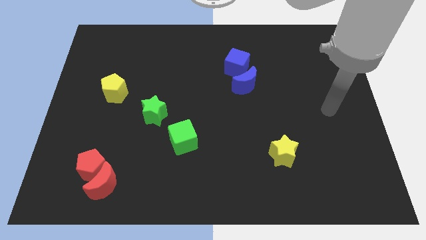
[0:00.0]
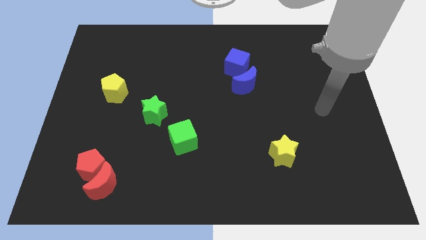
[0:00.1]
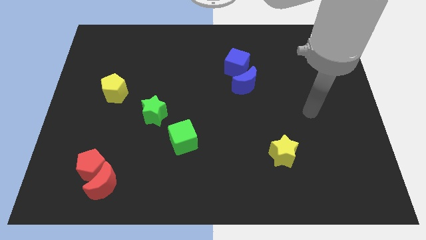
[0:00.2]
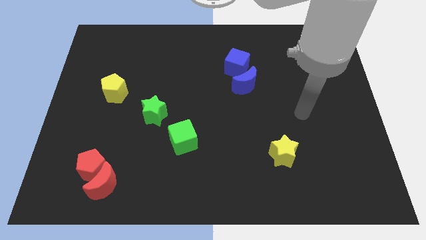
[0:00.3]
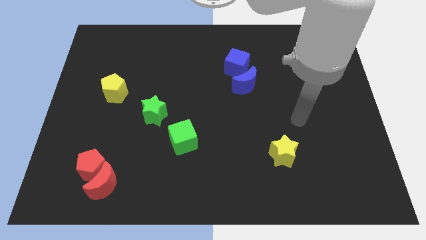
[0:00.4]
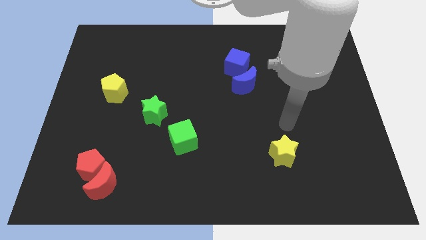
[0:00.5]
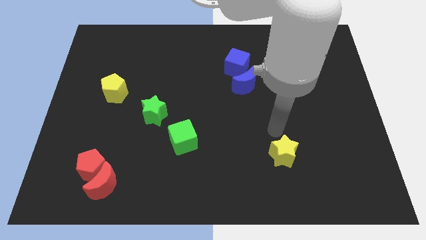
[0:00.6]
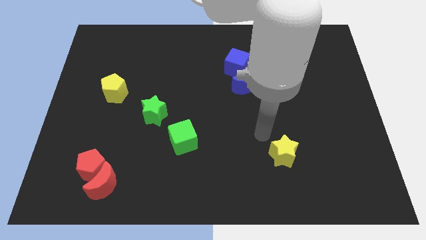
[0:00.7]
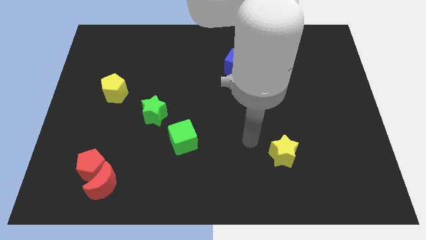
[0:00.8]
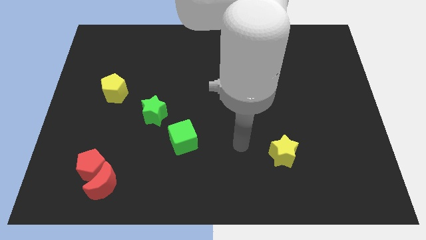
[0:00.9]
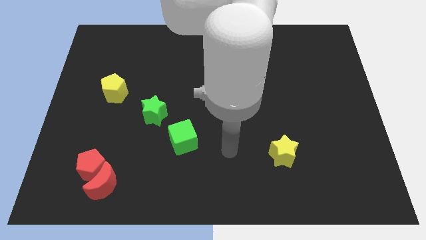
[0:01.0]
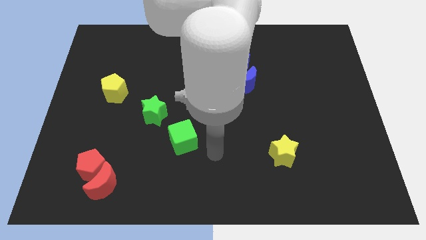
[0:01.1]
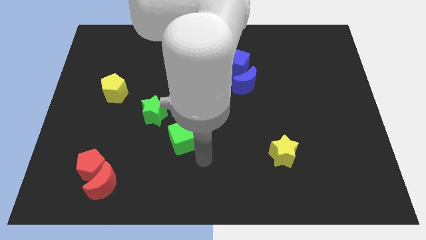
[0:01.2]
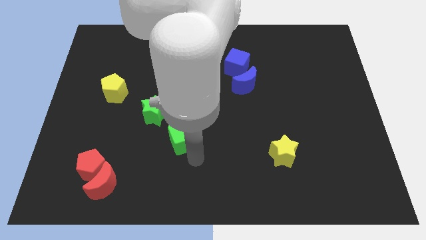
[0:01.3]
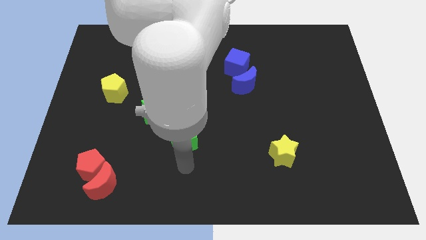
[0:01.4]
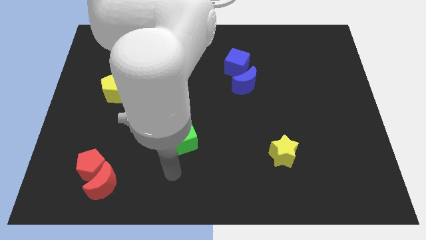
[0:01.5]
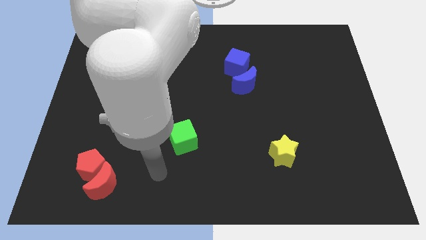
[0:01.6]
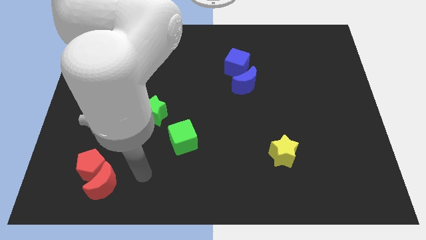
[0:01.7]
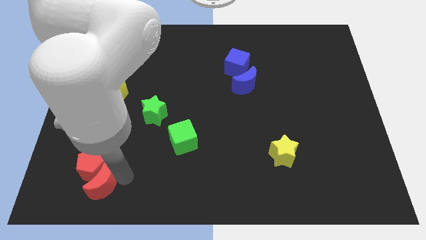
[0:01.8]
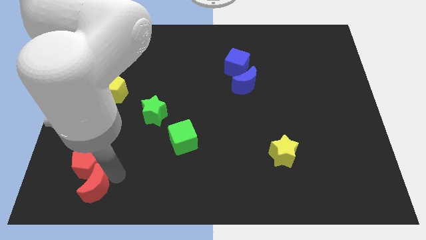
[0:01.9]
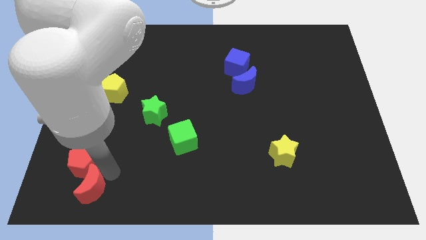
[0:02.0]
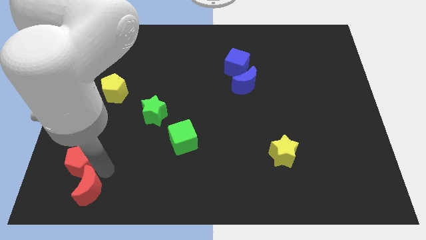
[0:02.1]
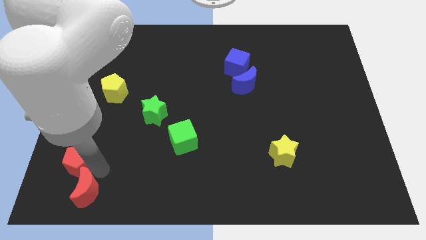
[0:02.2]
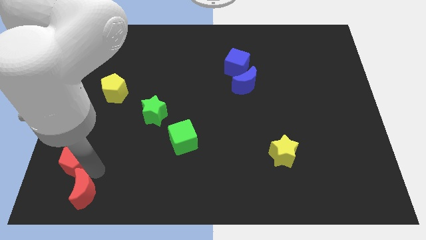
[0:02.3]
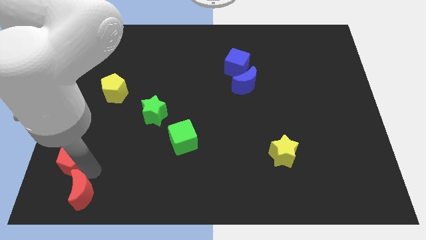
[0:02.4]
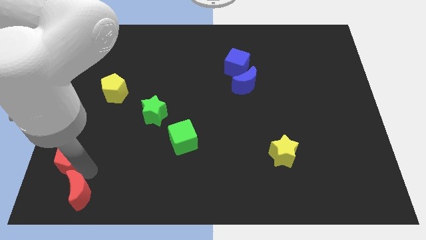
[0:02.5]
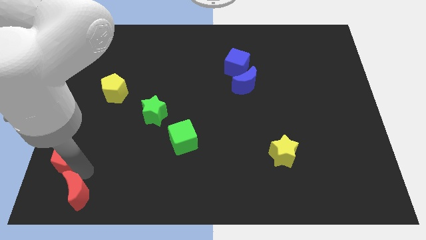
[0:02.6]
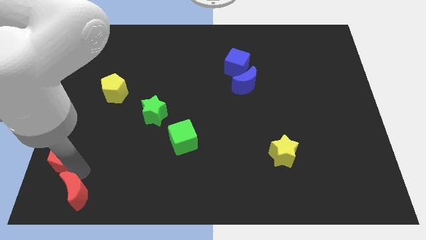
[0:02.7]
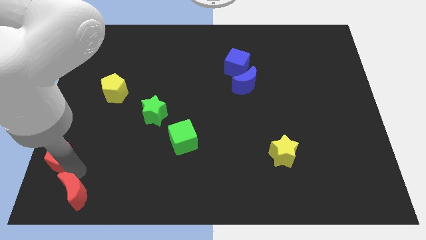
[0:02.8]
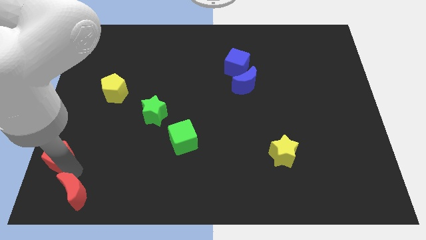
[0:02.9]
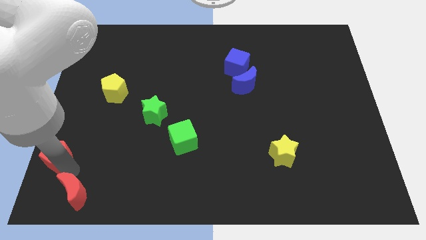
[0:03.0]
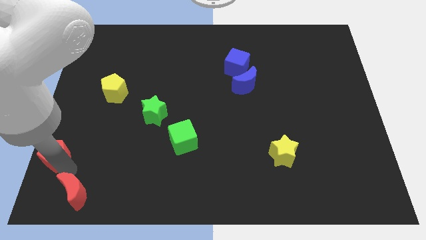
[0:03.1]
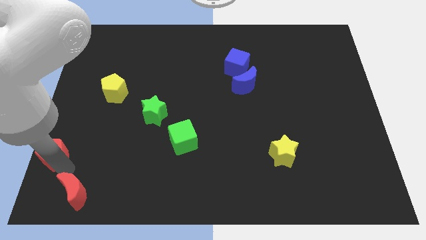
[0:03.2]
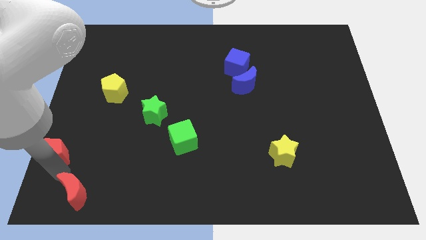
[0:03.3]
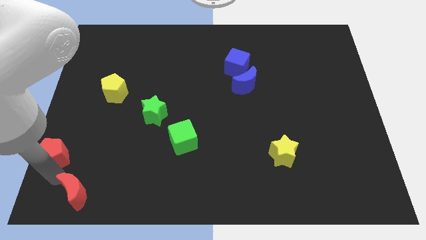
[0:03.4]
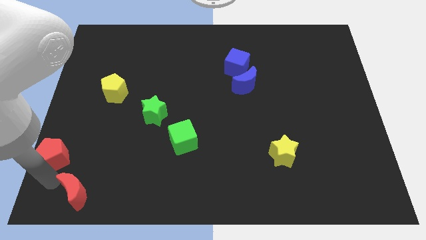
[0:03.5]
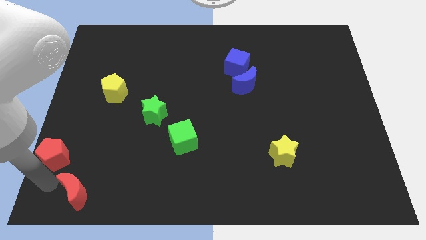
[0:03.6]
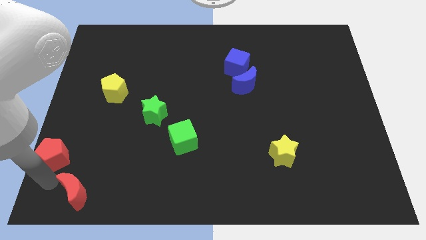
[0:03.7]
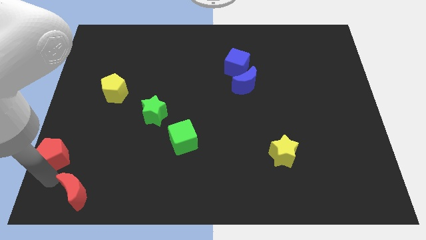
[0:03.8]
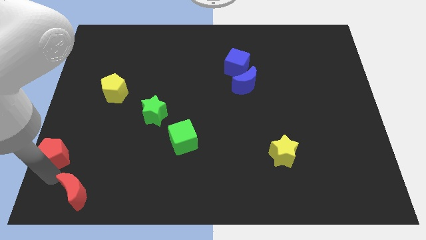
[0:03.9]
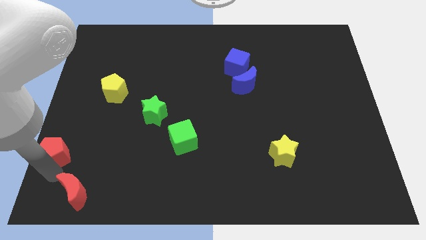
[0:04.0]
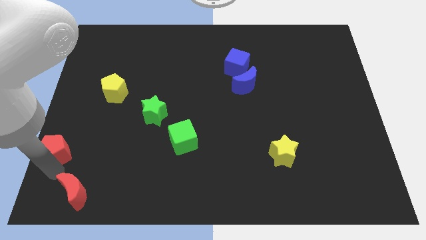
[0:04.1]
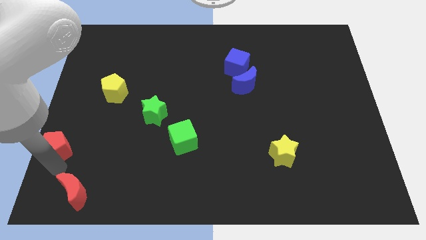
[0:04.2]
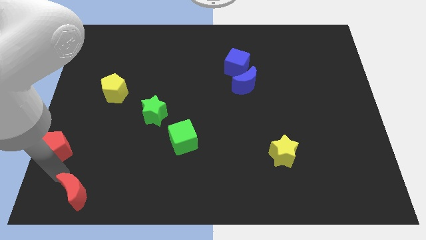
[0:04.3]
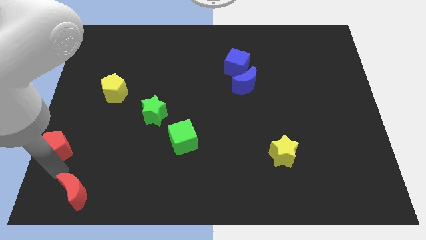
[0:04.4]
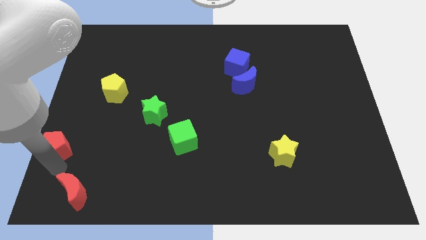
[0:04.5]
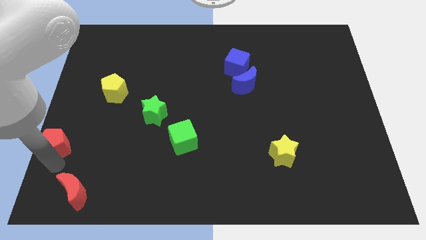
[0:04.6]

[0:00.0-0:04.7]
put the red pentagon to the center left

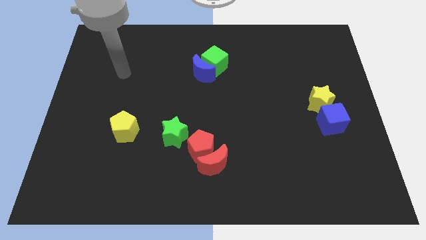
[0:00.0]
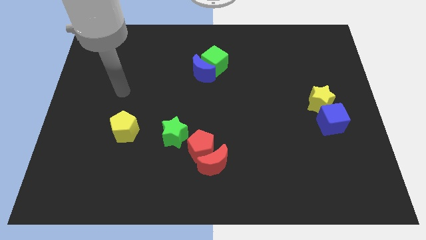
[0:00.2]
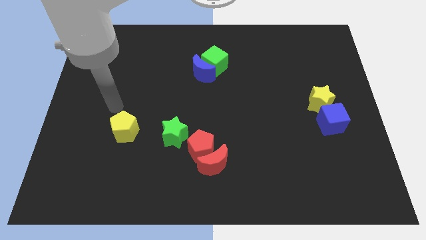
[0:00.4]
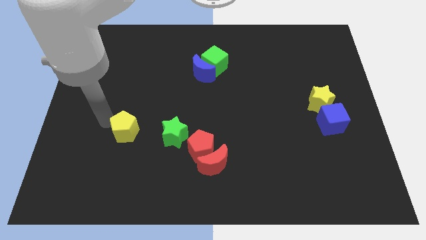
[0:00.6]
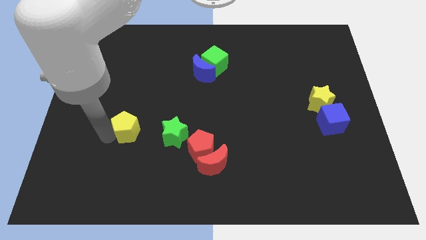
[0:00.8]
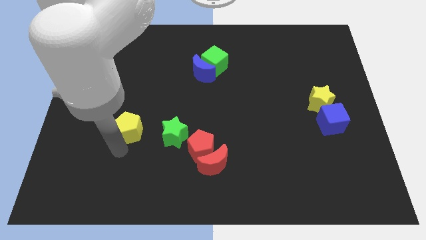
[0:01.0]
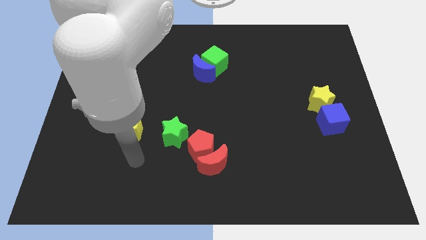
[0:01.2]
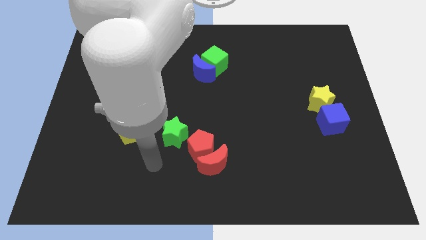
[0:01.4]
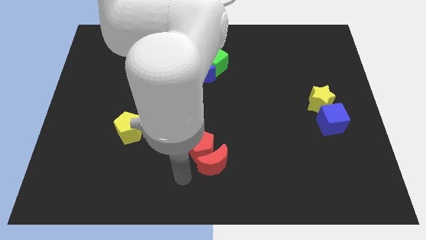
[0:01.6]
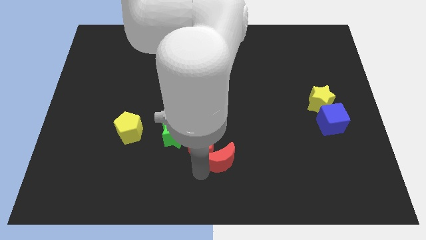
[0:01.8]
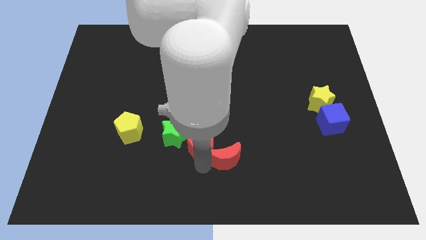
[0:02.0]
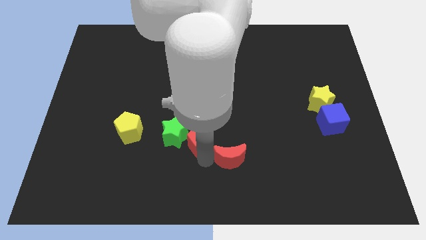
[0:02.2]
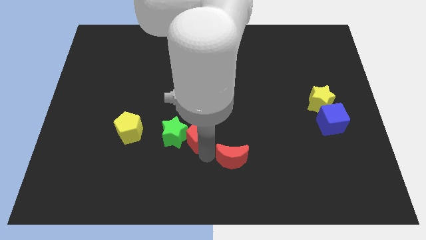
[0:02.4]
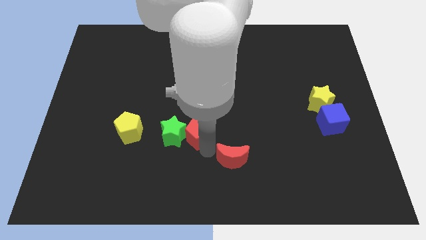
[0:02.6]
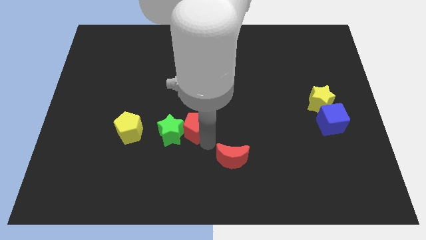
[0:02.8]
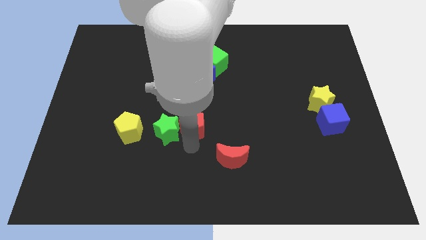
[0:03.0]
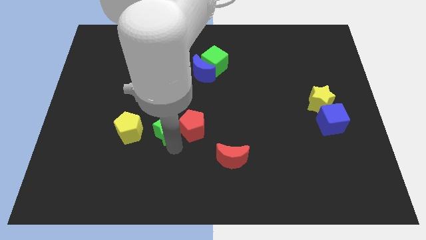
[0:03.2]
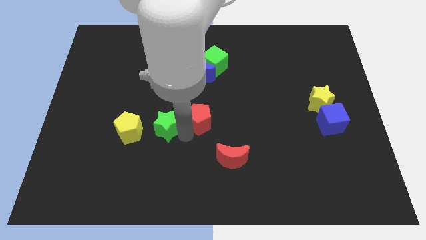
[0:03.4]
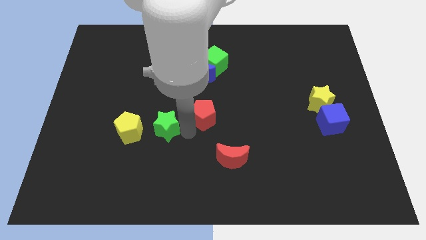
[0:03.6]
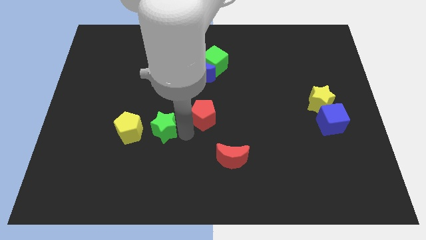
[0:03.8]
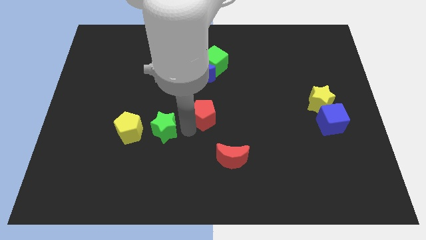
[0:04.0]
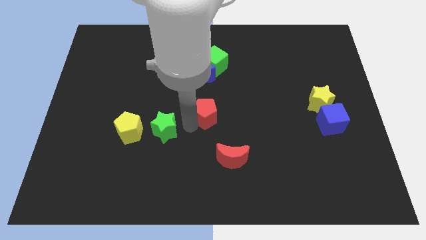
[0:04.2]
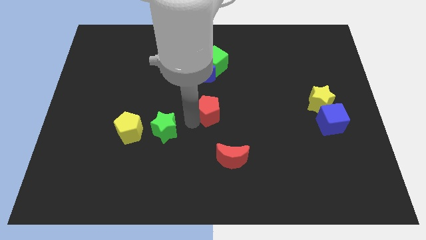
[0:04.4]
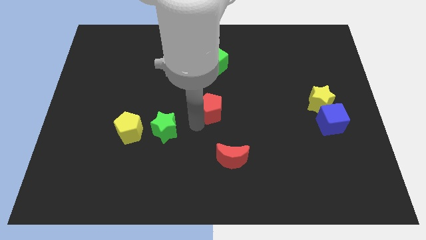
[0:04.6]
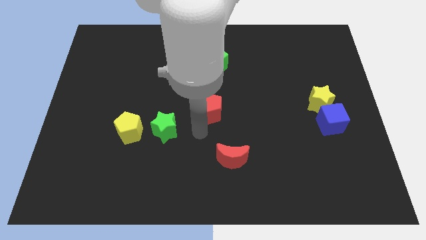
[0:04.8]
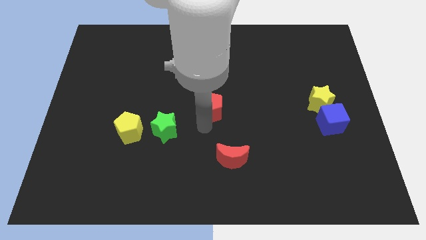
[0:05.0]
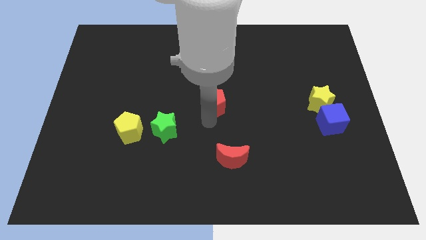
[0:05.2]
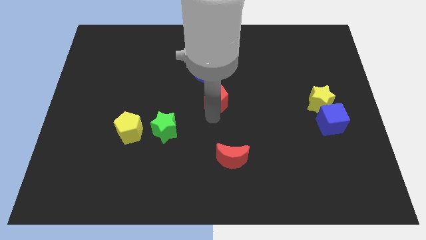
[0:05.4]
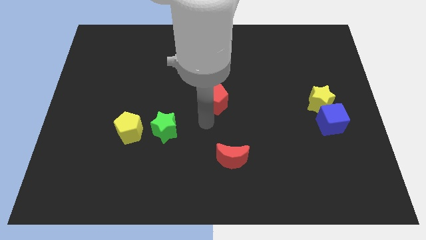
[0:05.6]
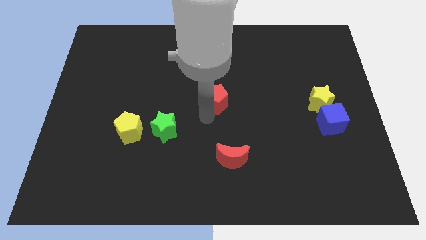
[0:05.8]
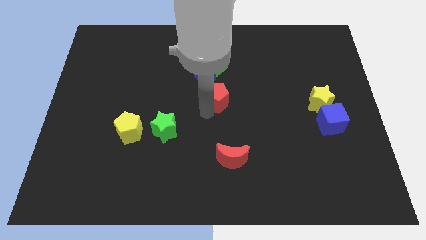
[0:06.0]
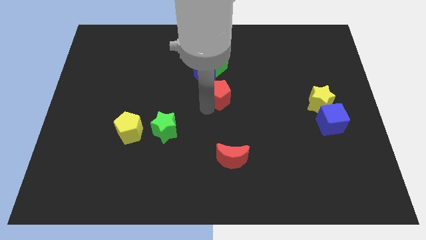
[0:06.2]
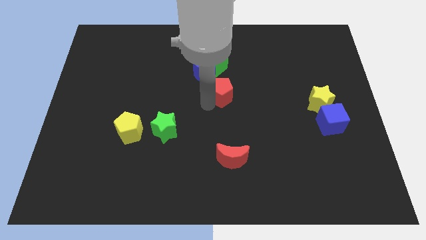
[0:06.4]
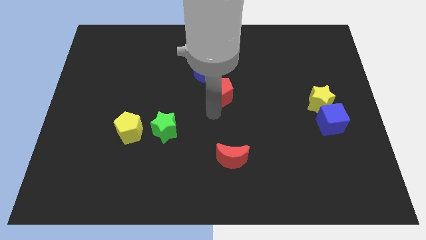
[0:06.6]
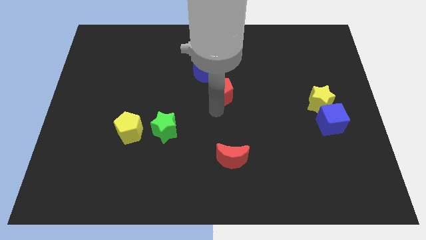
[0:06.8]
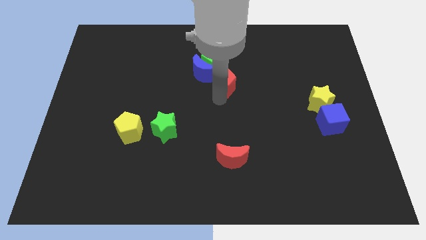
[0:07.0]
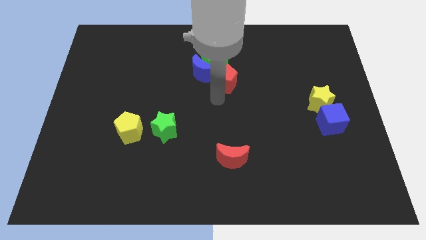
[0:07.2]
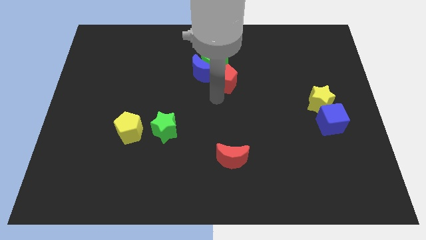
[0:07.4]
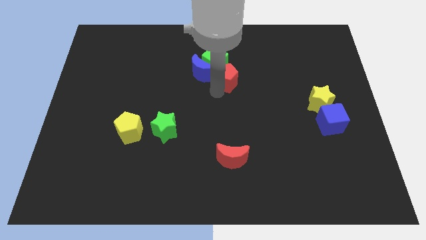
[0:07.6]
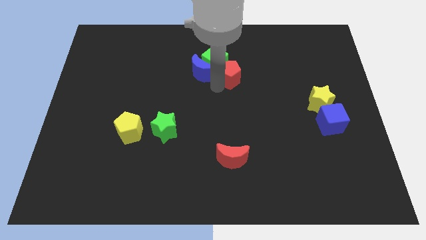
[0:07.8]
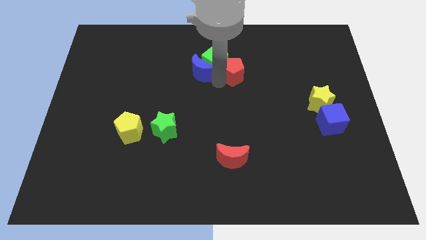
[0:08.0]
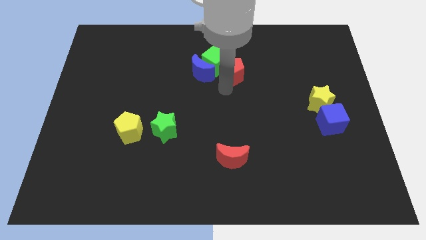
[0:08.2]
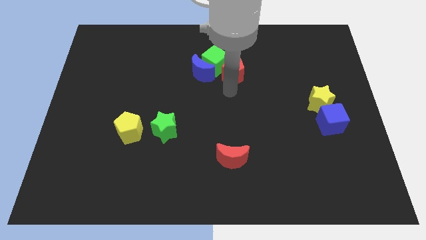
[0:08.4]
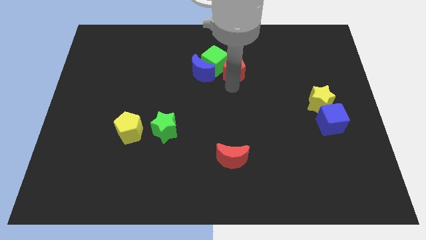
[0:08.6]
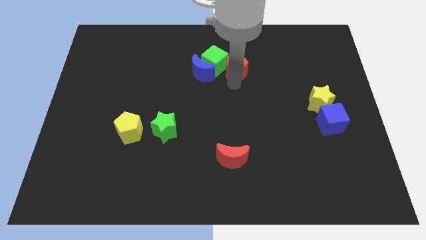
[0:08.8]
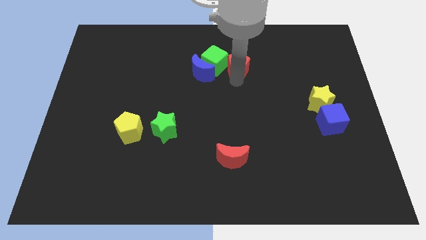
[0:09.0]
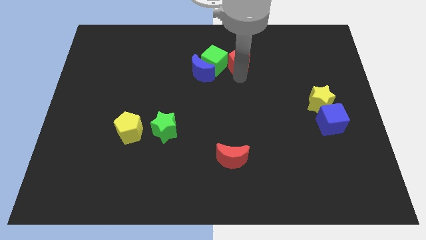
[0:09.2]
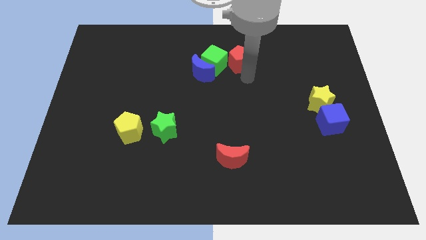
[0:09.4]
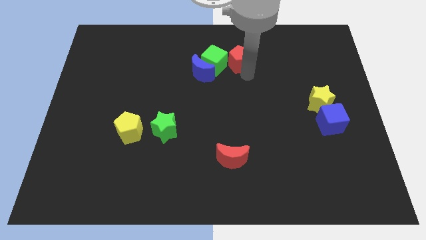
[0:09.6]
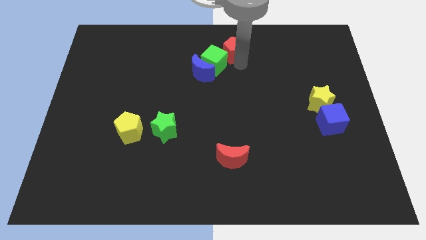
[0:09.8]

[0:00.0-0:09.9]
slide the red pentagon to the top side
